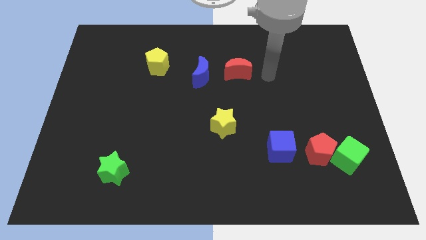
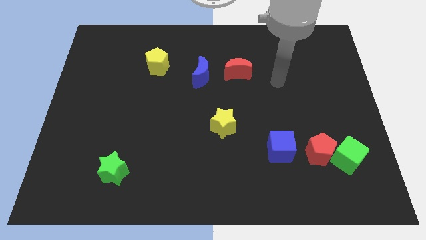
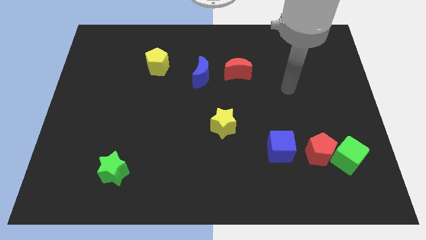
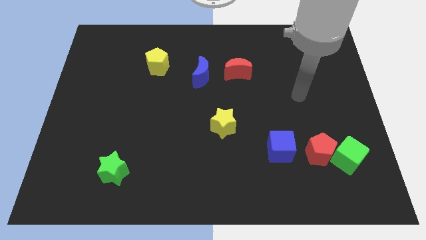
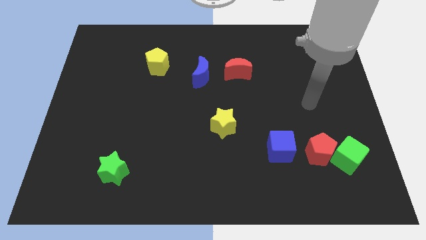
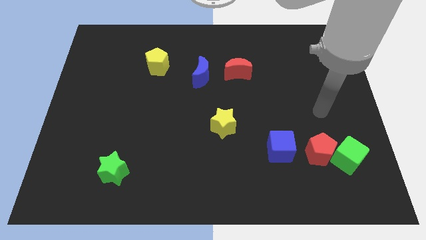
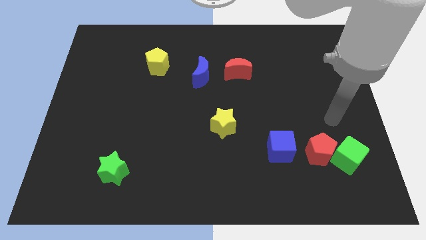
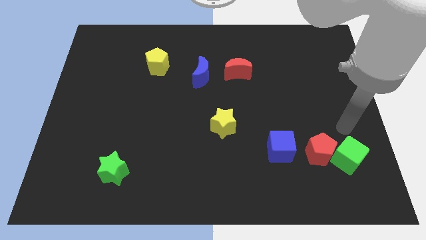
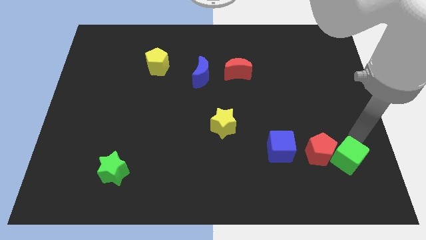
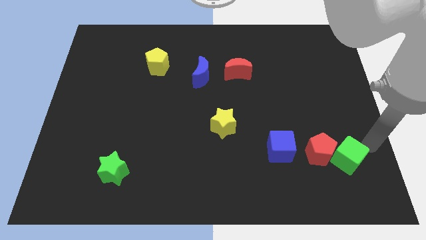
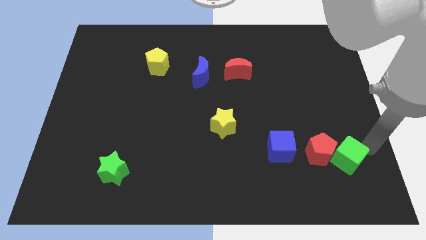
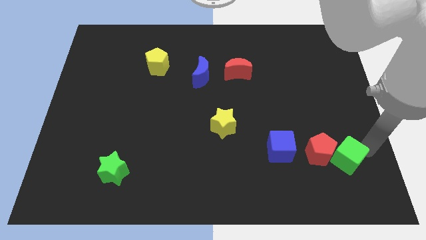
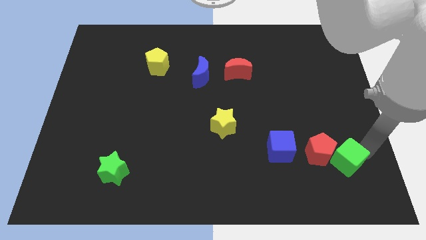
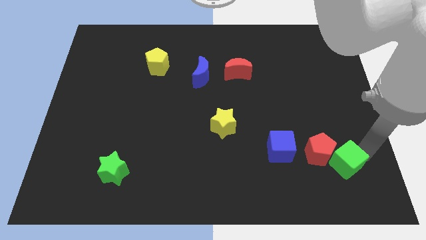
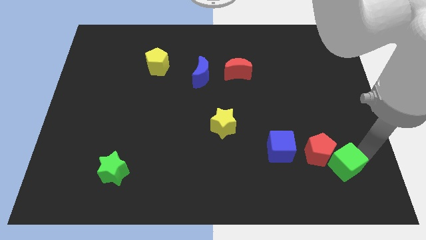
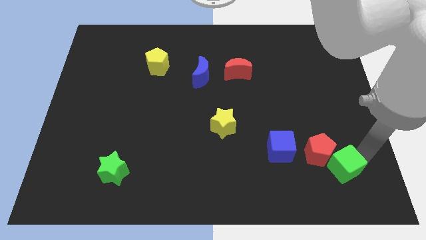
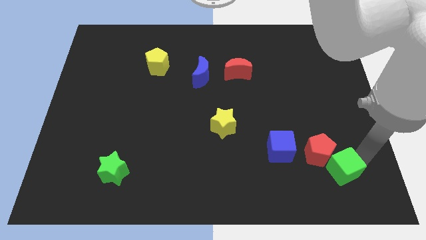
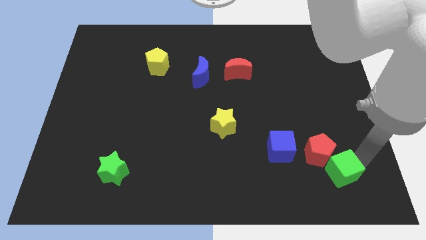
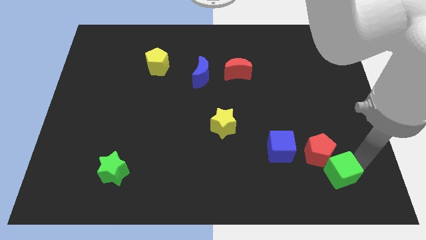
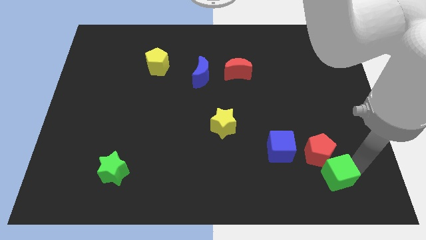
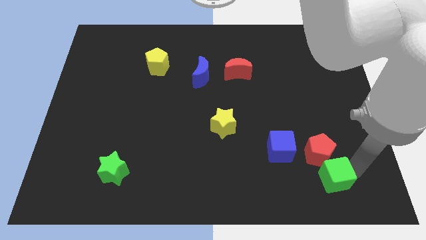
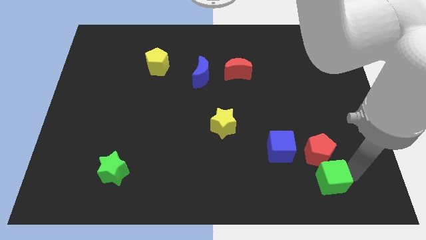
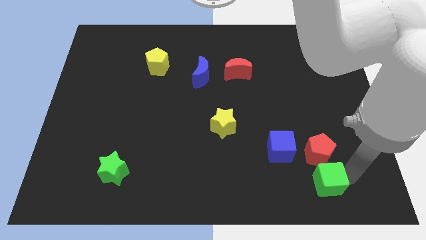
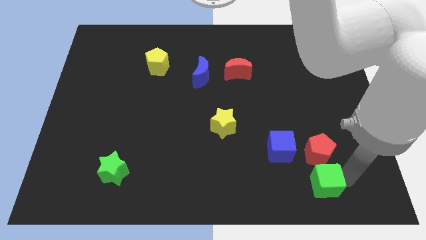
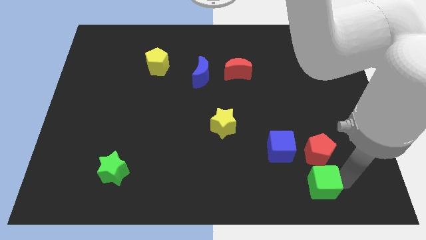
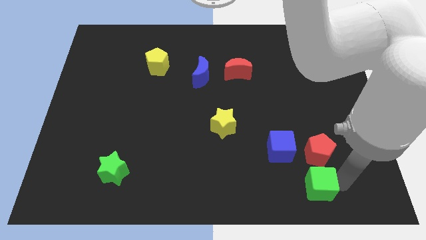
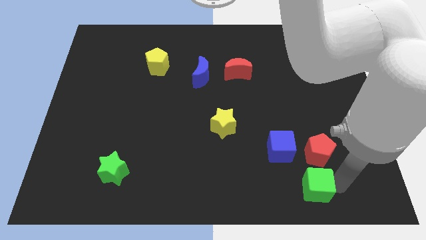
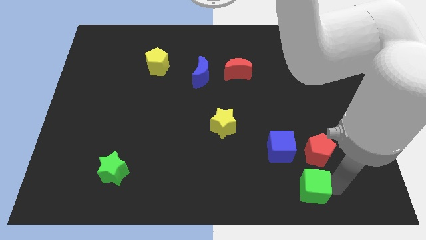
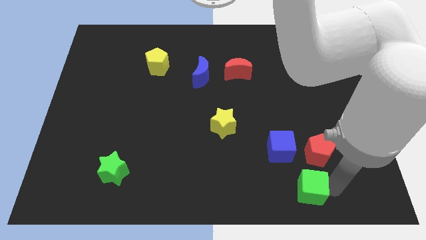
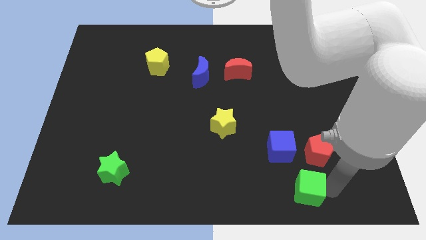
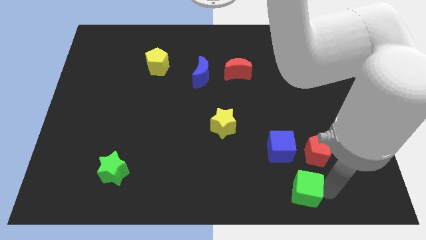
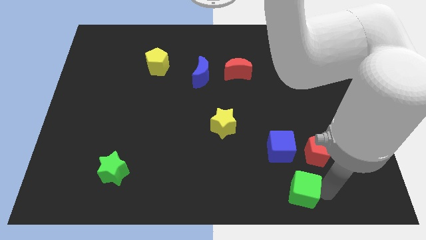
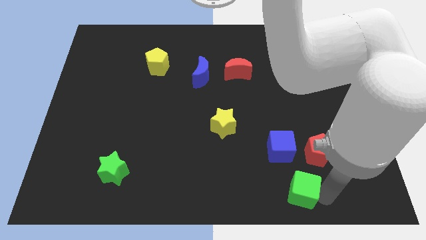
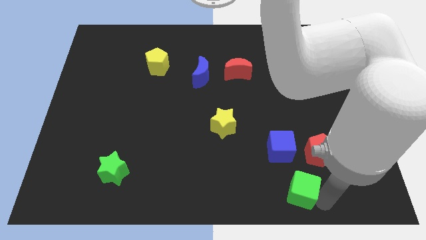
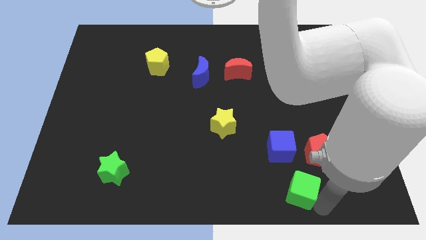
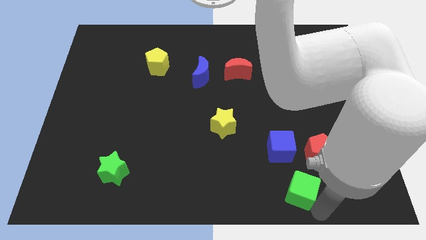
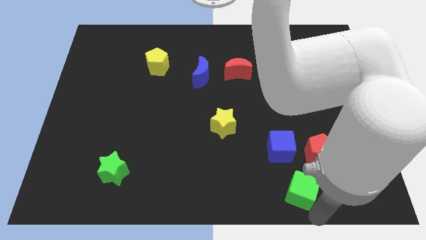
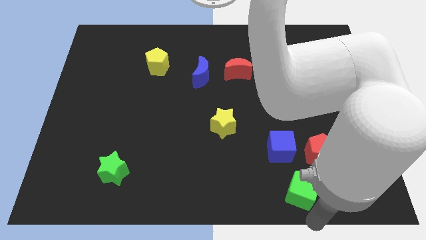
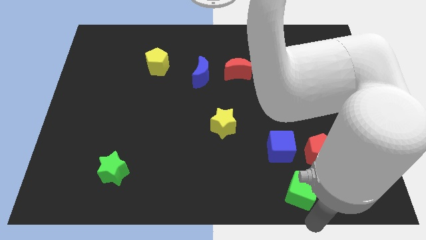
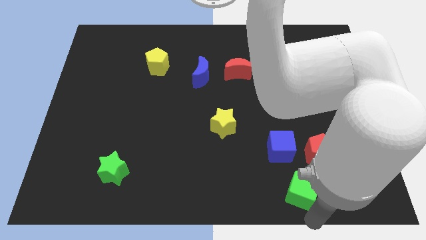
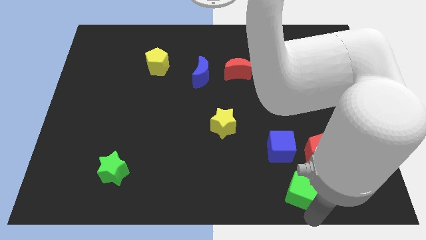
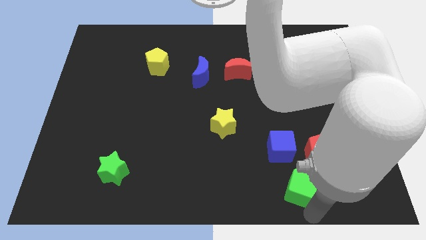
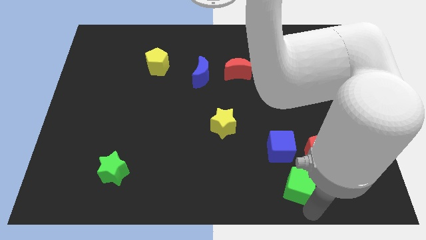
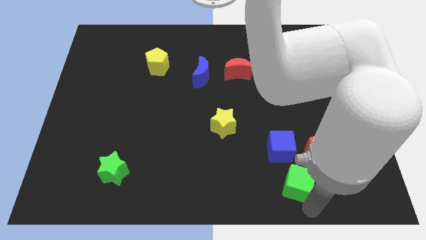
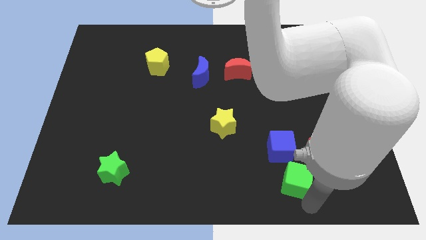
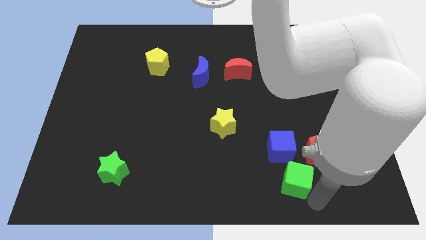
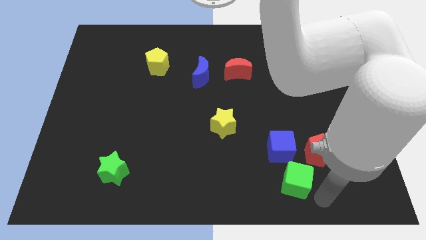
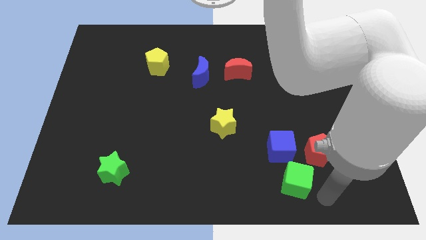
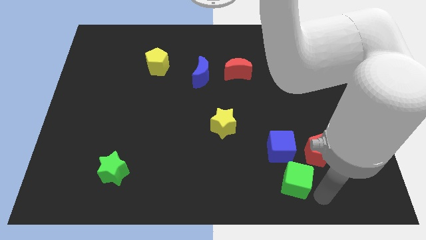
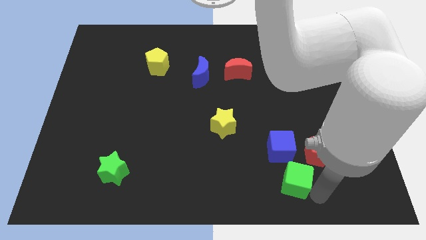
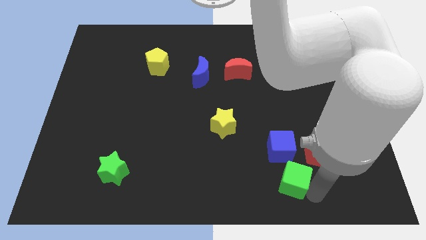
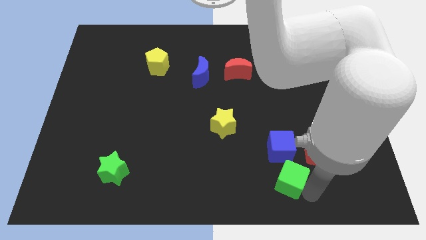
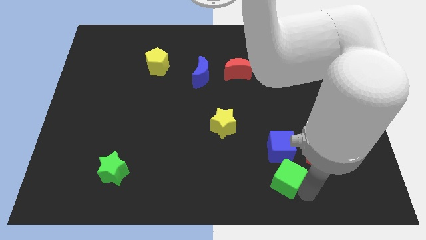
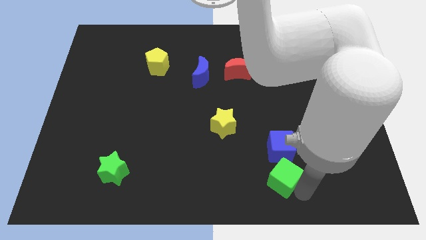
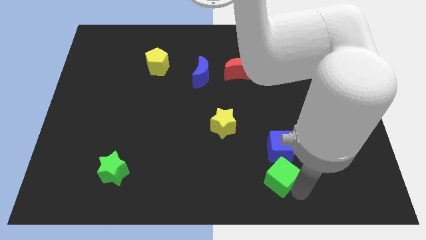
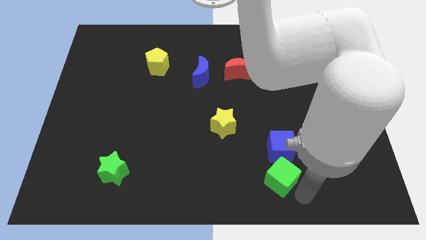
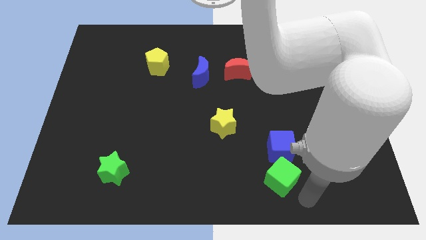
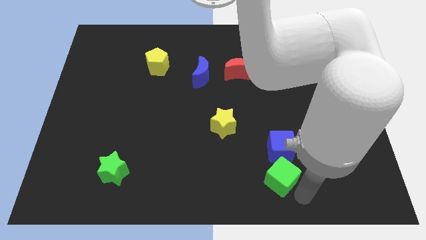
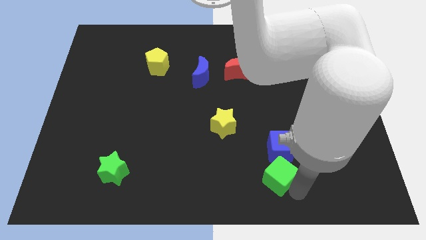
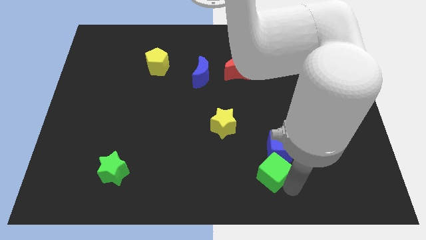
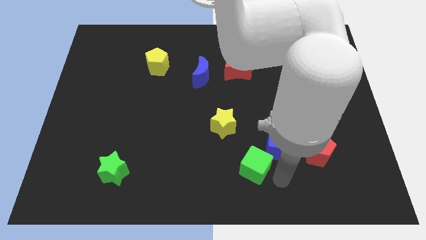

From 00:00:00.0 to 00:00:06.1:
push the green cube just left of the blue cube

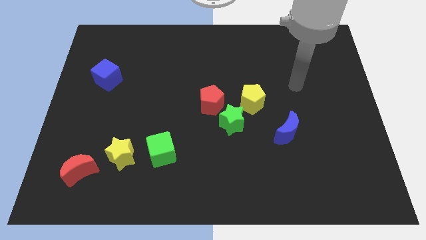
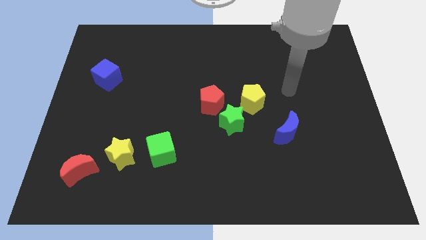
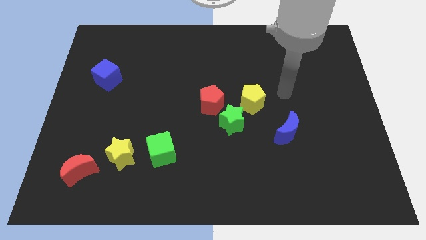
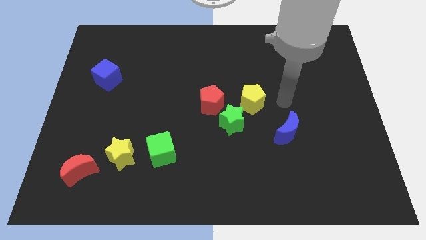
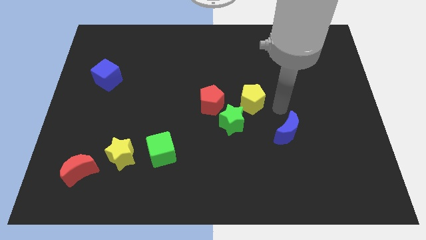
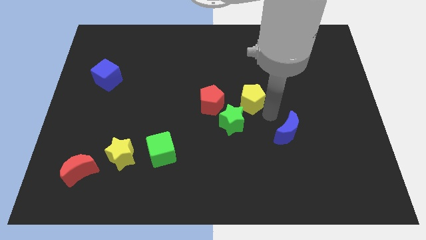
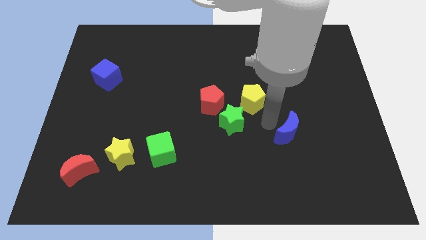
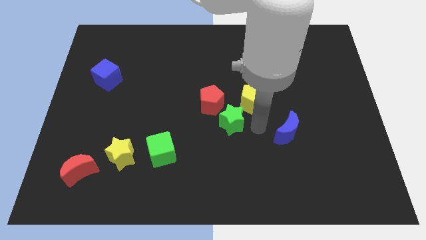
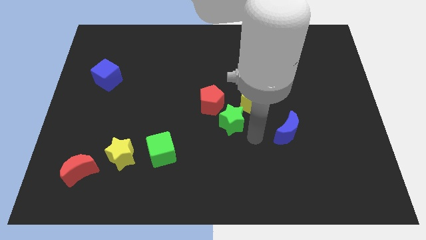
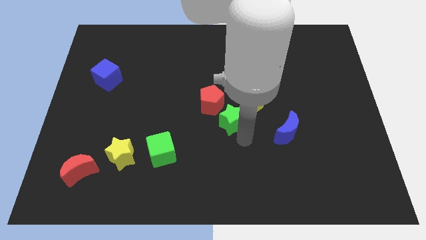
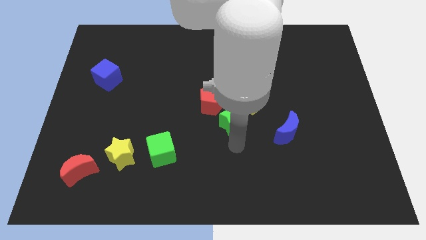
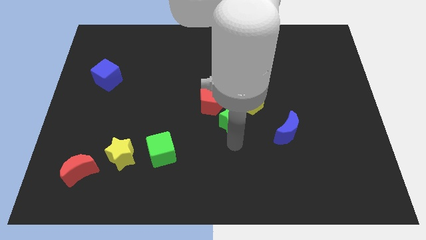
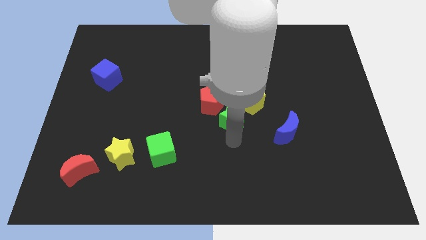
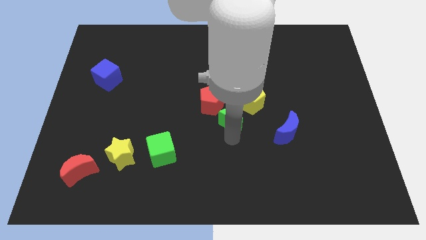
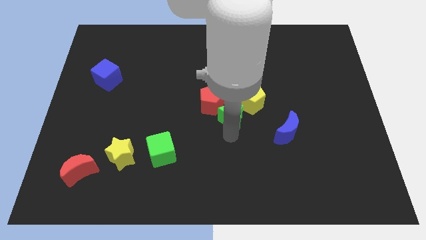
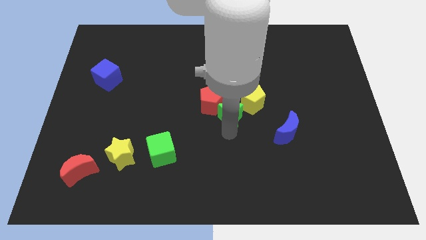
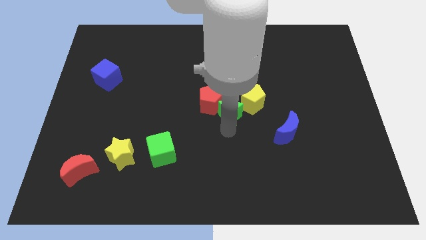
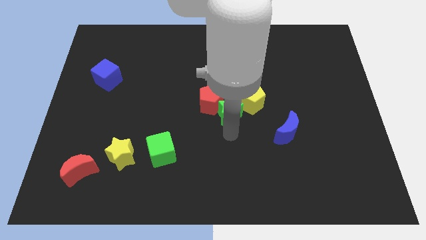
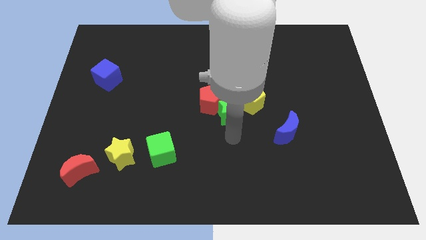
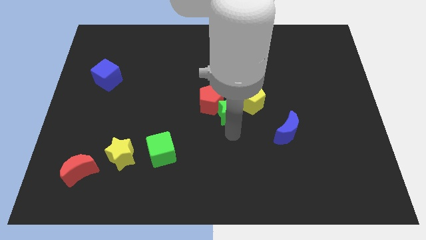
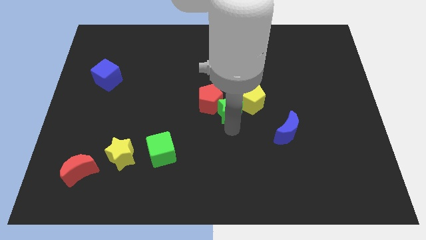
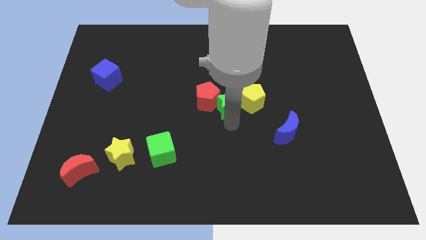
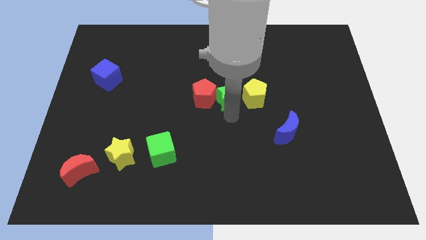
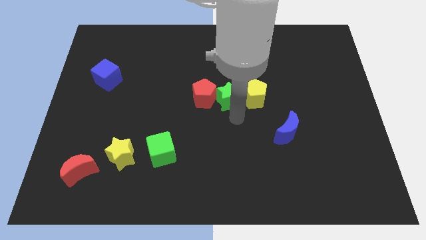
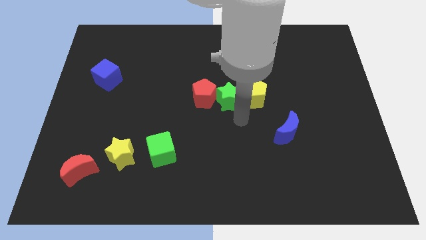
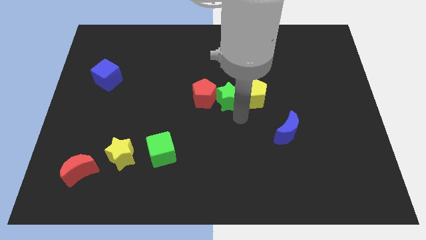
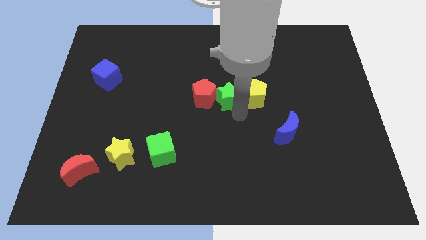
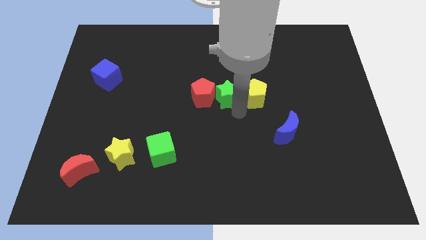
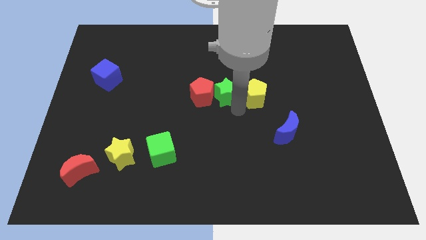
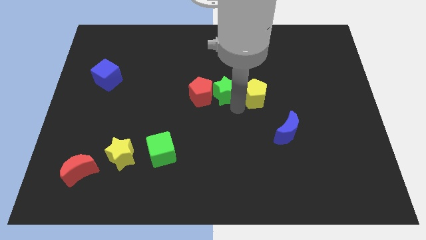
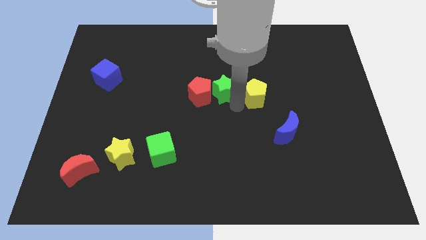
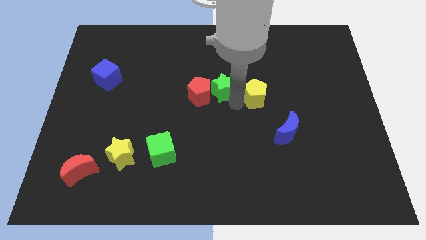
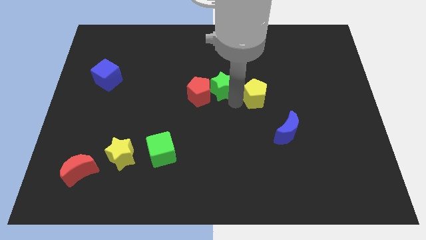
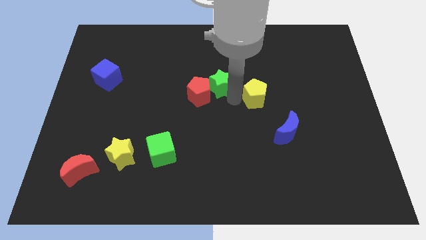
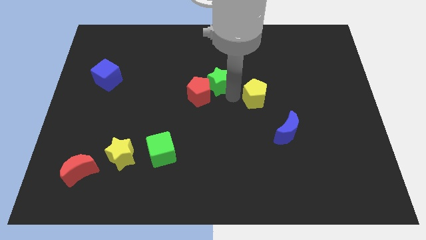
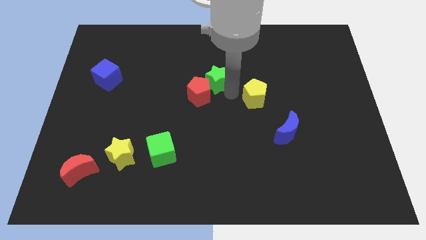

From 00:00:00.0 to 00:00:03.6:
put the green star above the red pentagon
